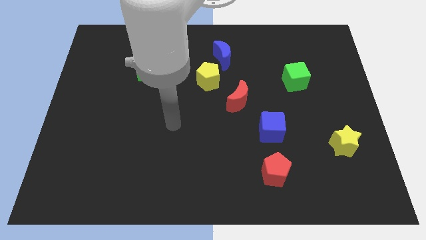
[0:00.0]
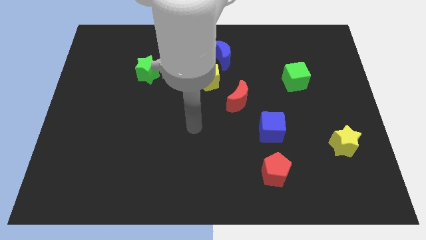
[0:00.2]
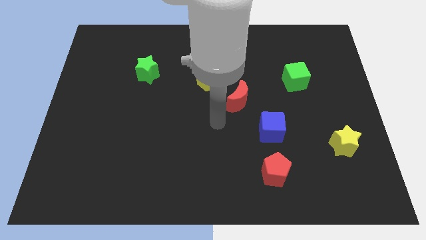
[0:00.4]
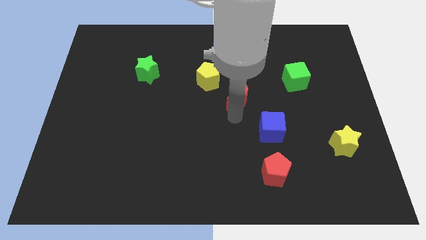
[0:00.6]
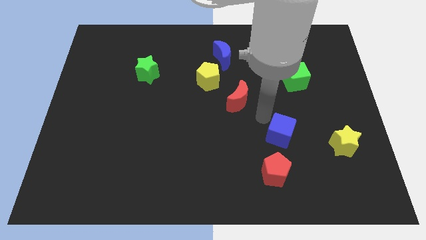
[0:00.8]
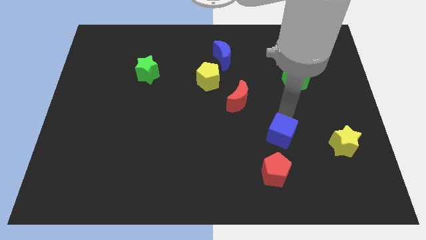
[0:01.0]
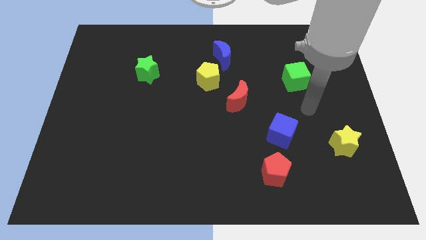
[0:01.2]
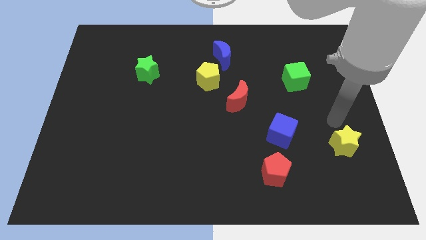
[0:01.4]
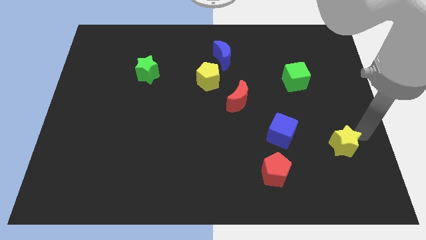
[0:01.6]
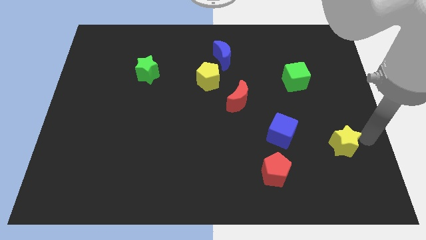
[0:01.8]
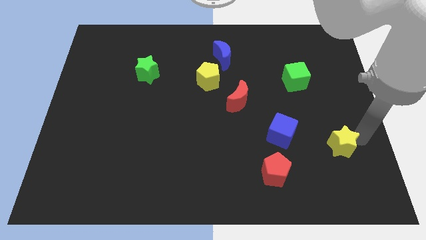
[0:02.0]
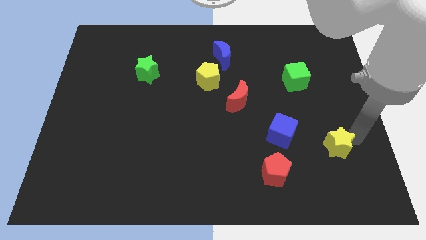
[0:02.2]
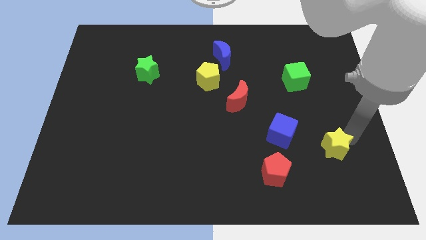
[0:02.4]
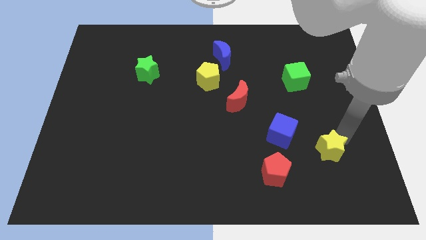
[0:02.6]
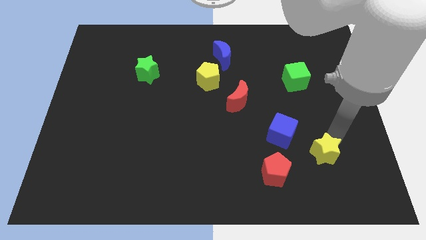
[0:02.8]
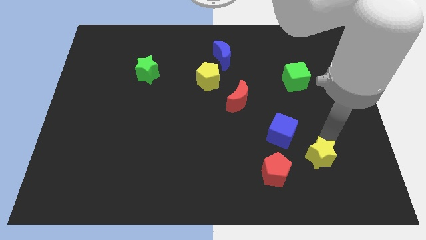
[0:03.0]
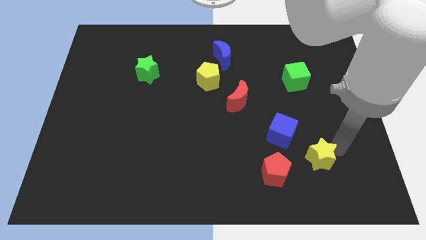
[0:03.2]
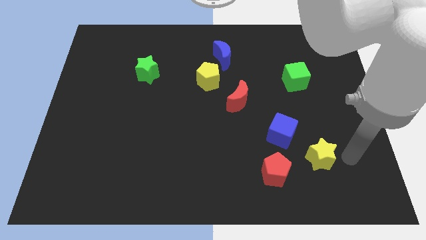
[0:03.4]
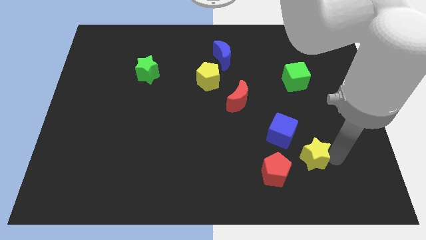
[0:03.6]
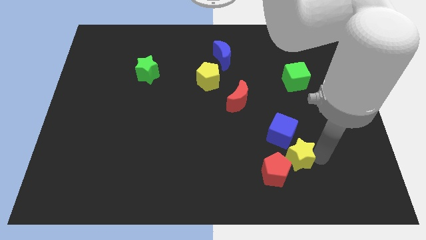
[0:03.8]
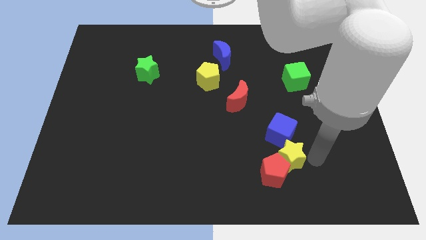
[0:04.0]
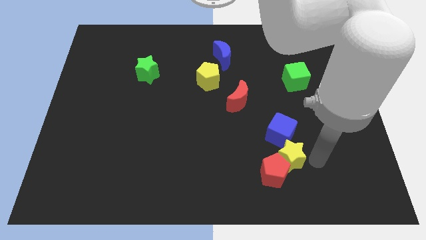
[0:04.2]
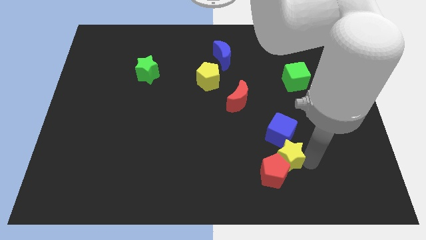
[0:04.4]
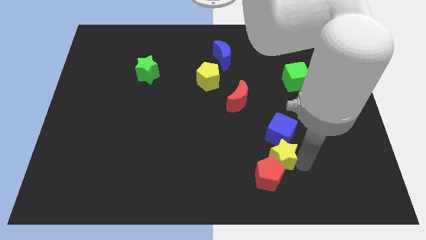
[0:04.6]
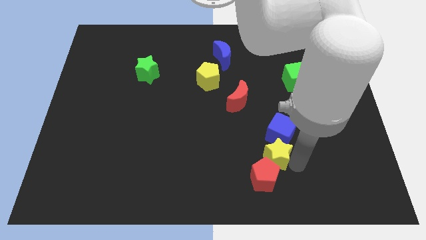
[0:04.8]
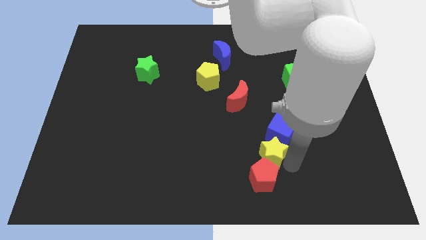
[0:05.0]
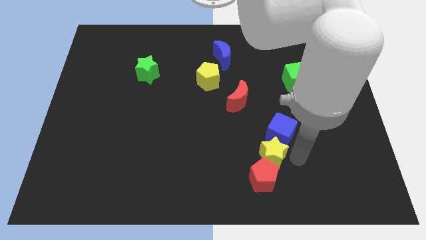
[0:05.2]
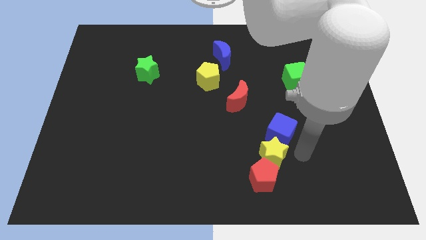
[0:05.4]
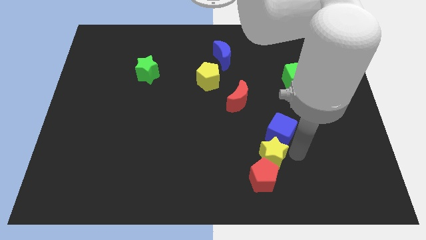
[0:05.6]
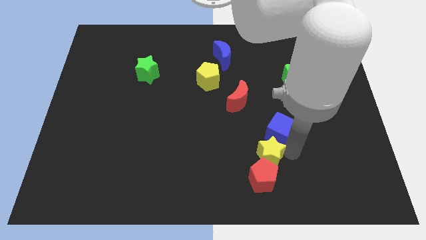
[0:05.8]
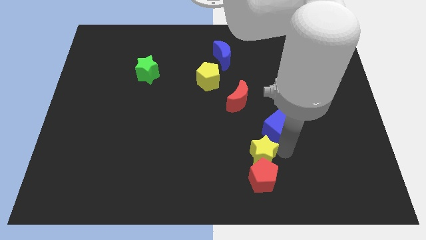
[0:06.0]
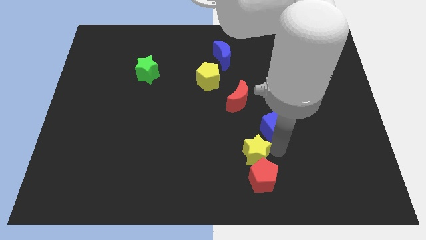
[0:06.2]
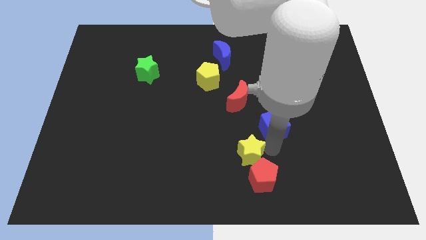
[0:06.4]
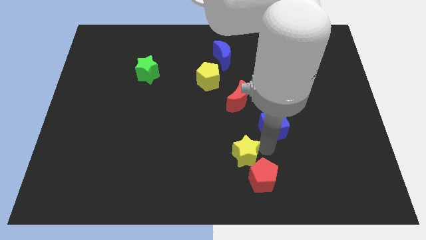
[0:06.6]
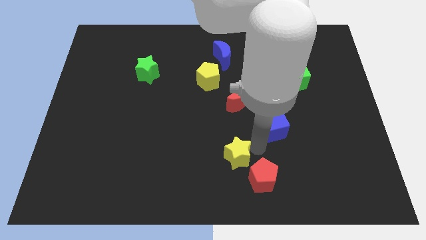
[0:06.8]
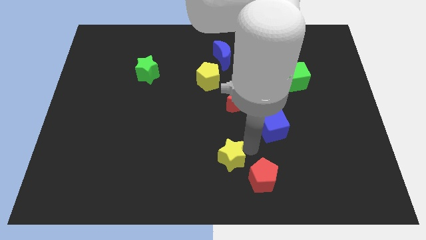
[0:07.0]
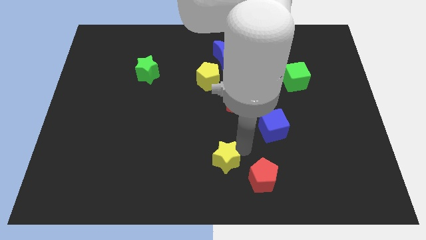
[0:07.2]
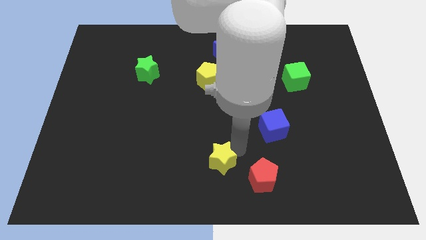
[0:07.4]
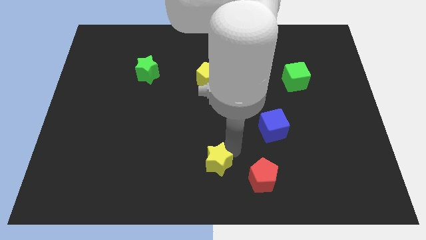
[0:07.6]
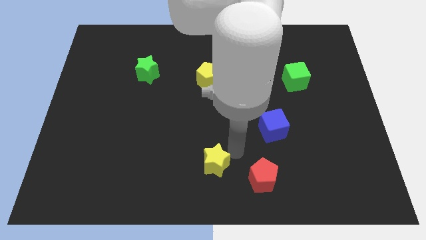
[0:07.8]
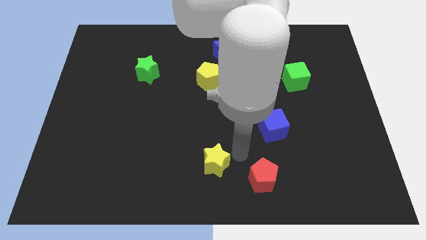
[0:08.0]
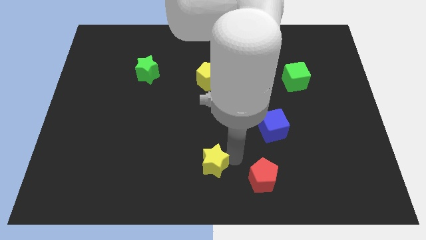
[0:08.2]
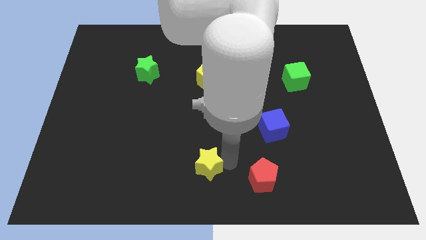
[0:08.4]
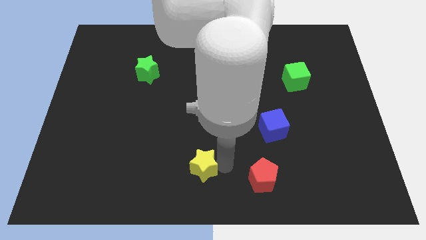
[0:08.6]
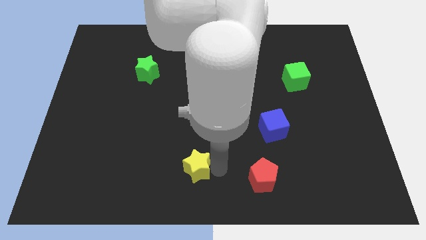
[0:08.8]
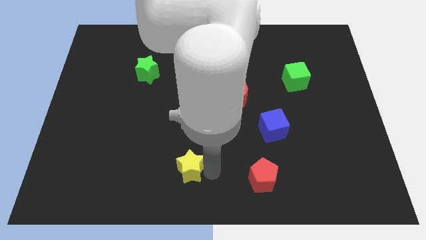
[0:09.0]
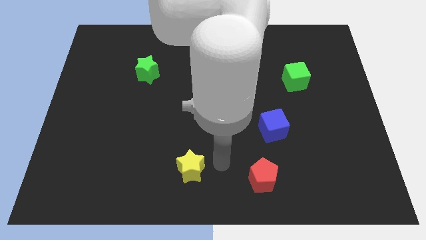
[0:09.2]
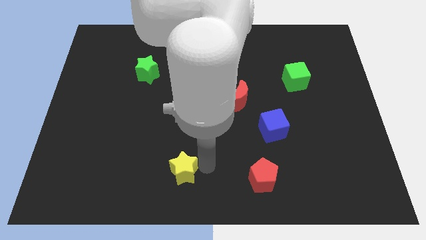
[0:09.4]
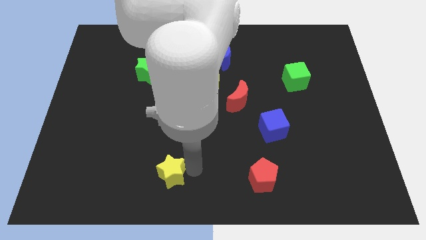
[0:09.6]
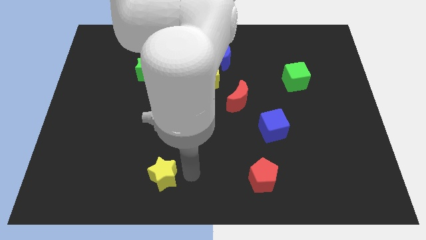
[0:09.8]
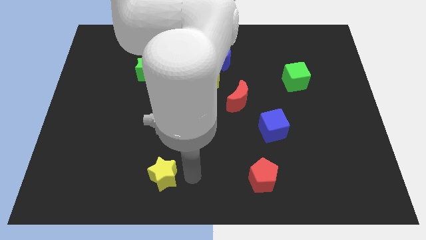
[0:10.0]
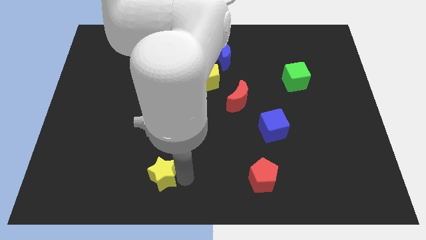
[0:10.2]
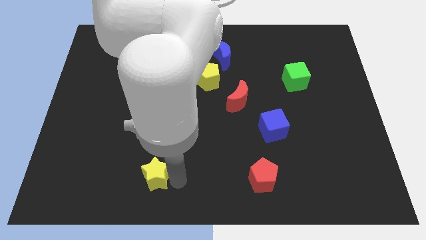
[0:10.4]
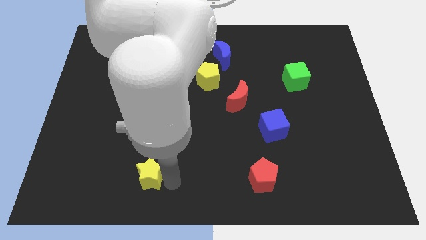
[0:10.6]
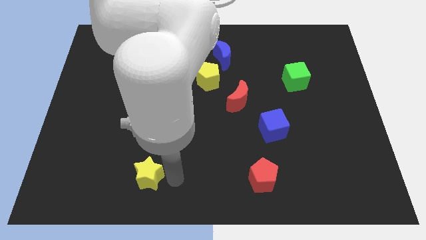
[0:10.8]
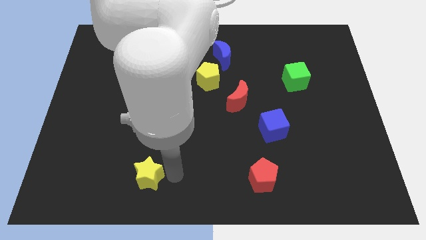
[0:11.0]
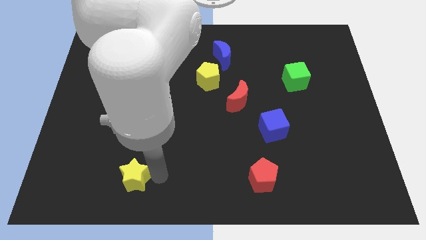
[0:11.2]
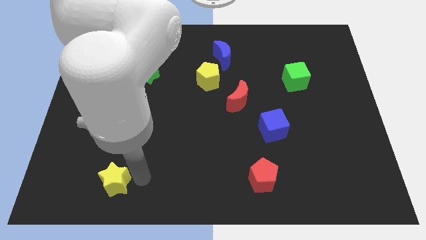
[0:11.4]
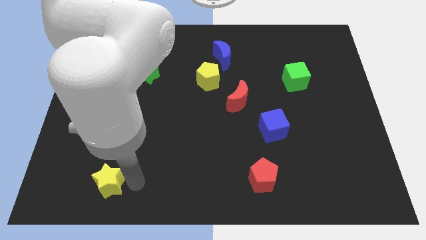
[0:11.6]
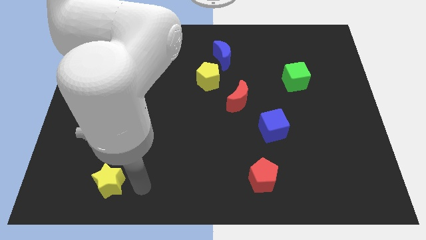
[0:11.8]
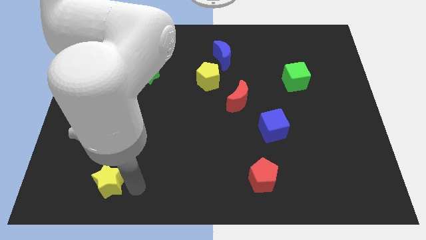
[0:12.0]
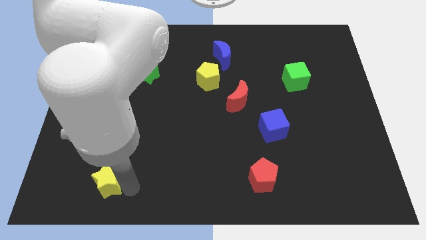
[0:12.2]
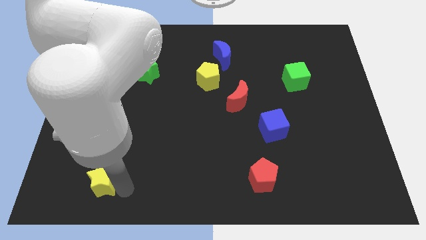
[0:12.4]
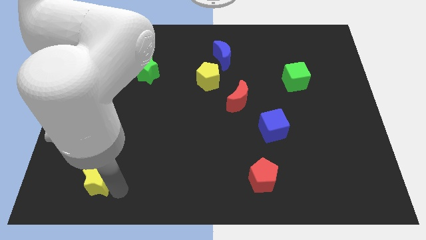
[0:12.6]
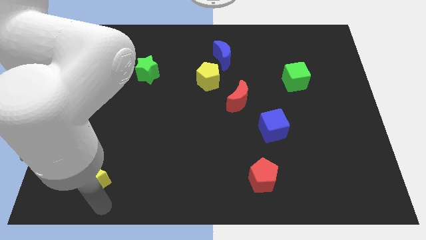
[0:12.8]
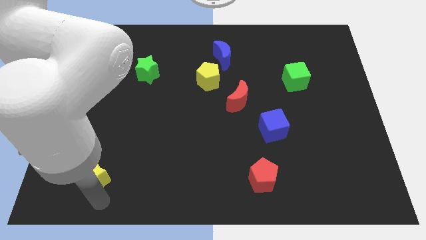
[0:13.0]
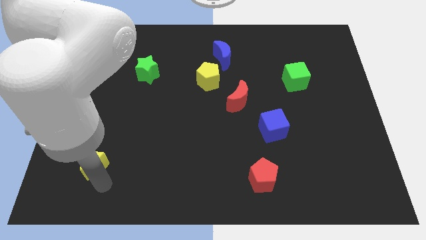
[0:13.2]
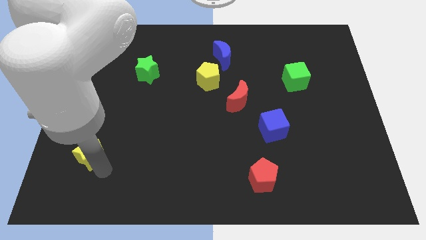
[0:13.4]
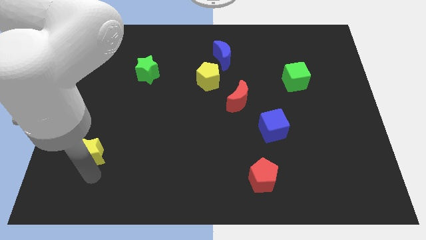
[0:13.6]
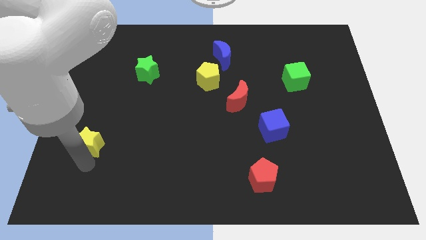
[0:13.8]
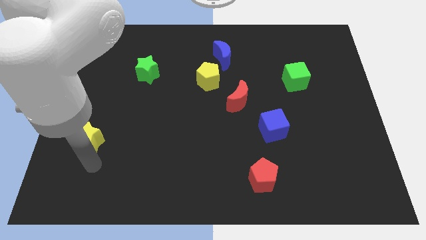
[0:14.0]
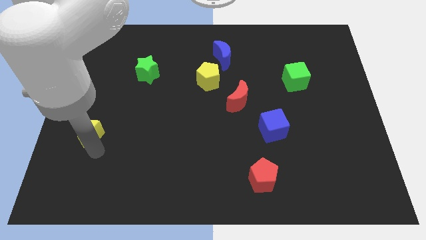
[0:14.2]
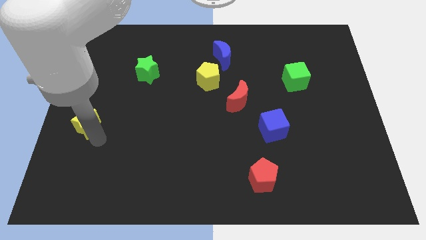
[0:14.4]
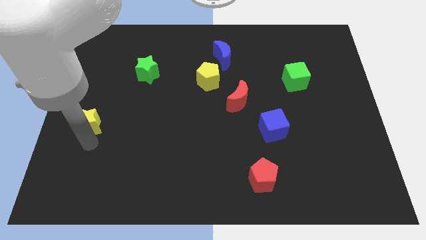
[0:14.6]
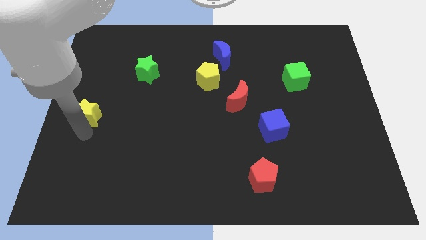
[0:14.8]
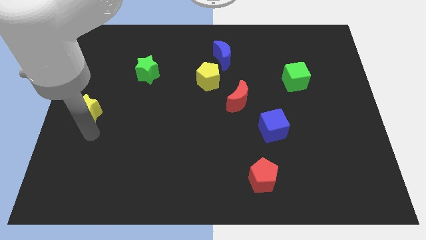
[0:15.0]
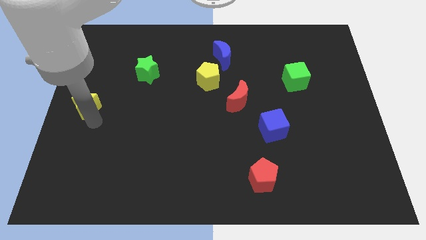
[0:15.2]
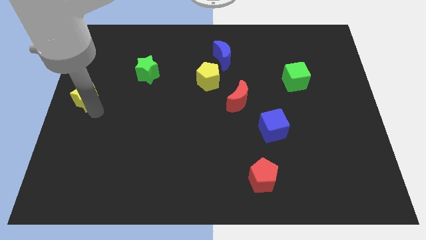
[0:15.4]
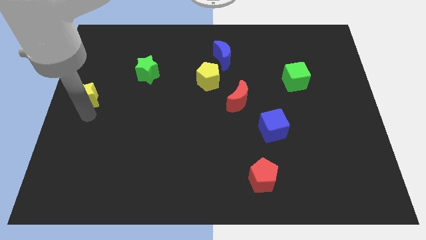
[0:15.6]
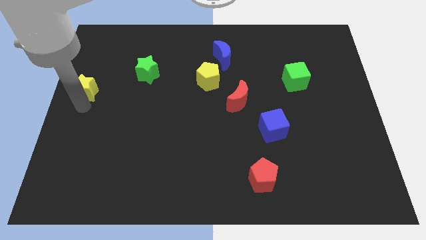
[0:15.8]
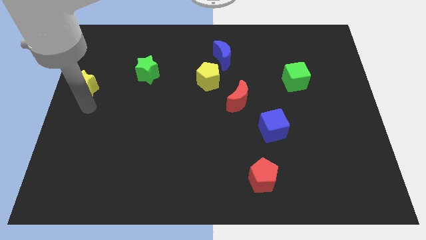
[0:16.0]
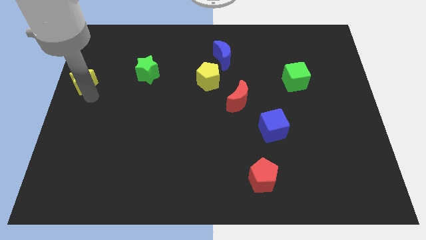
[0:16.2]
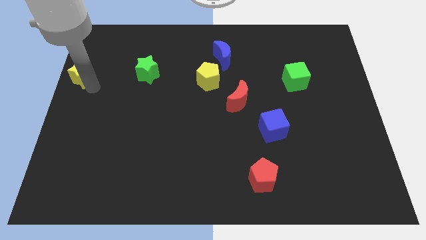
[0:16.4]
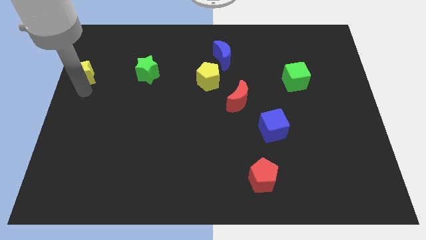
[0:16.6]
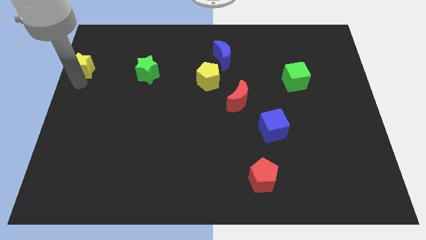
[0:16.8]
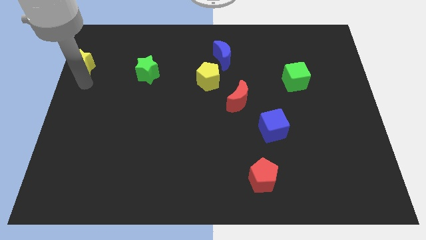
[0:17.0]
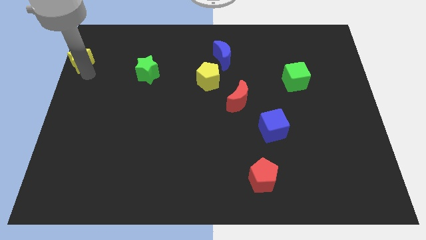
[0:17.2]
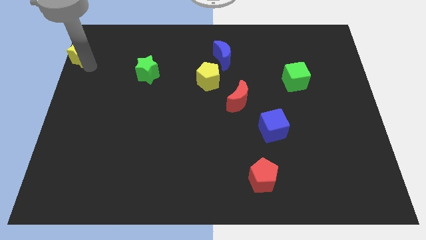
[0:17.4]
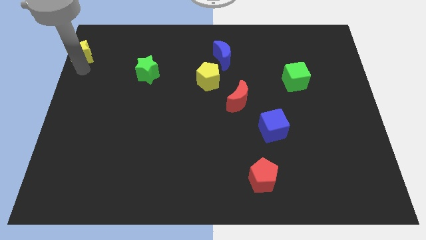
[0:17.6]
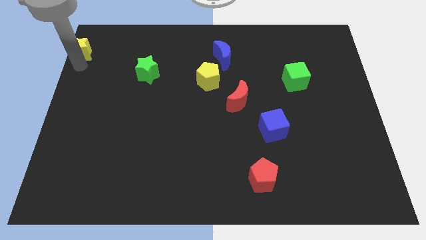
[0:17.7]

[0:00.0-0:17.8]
slide the yellow star to the top left corner
